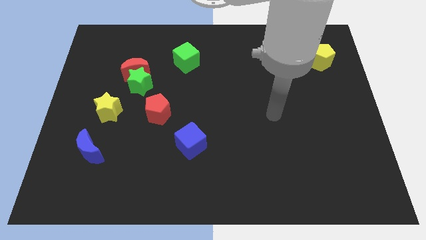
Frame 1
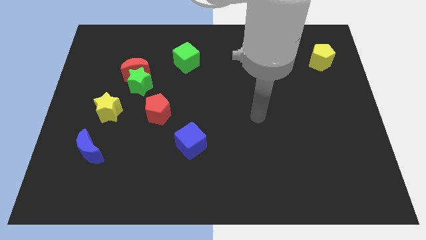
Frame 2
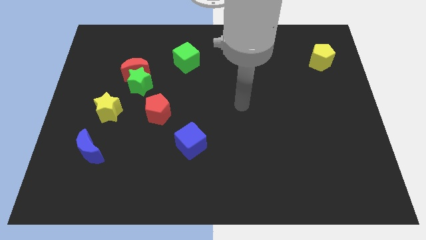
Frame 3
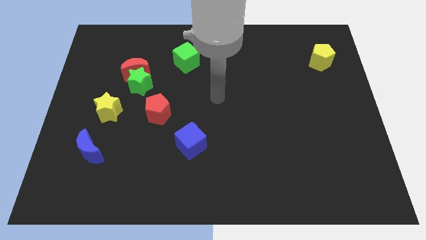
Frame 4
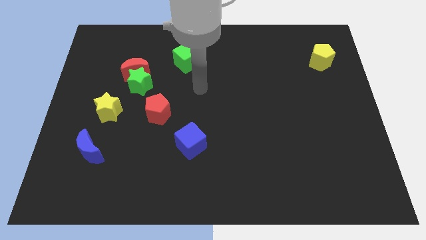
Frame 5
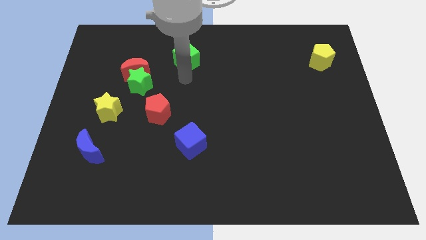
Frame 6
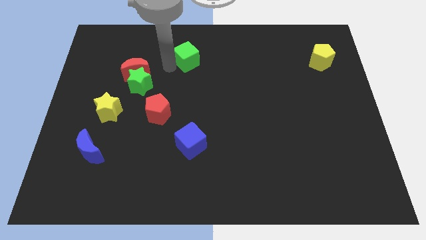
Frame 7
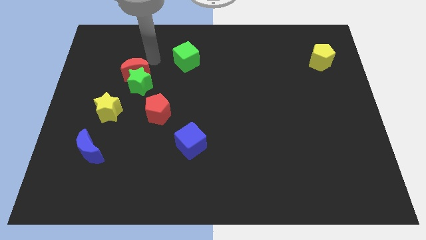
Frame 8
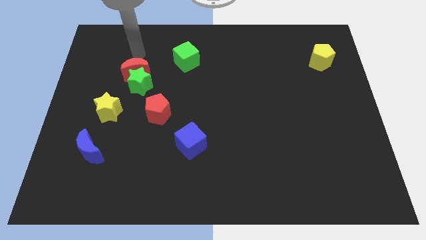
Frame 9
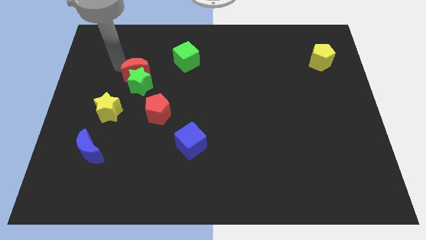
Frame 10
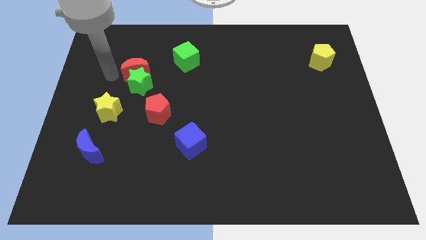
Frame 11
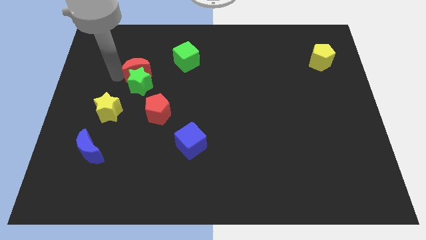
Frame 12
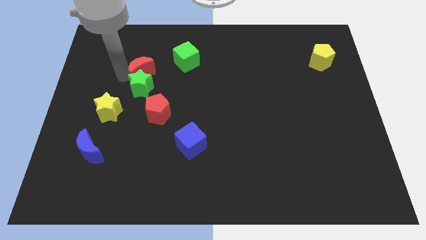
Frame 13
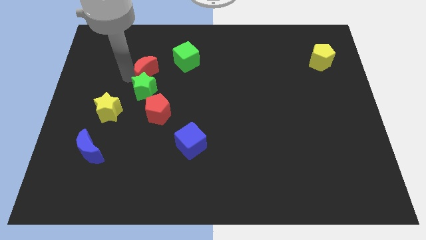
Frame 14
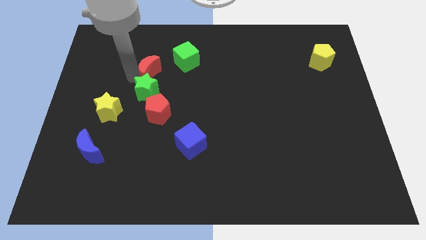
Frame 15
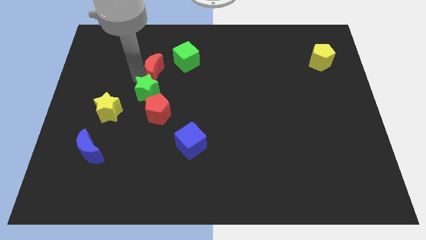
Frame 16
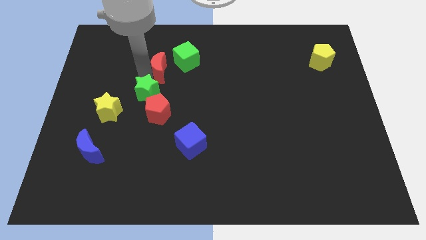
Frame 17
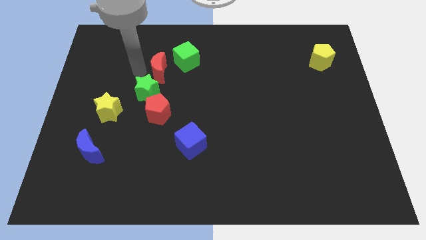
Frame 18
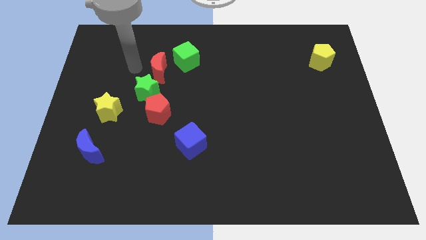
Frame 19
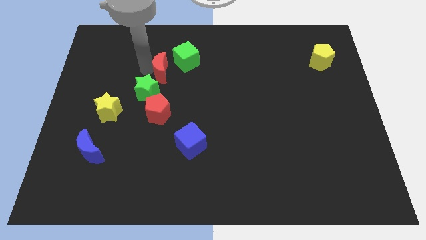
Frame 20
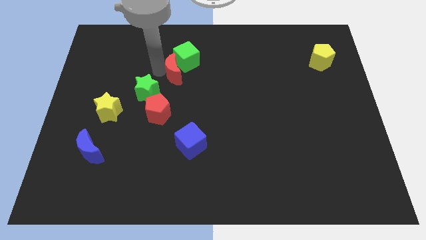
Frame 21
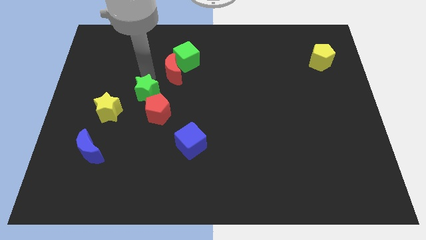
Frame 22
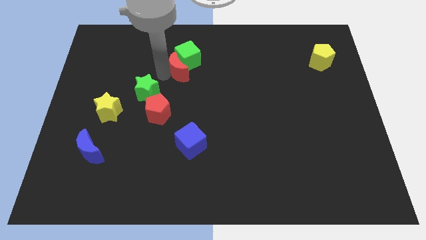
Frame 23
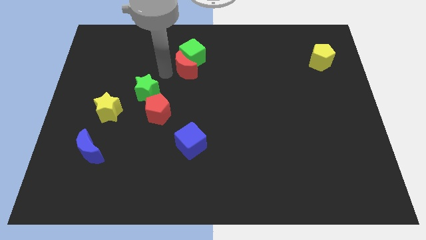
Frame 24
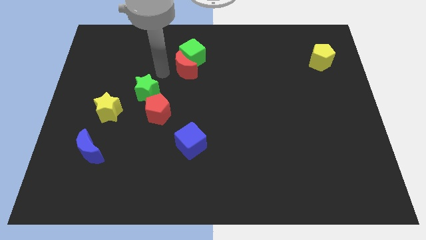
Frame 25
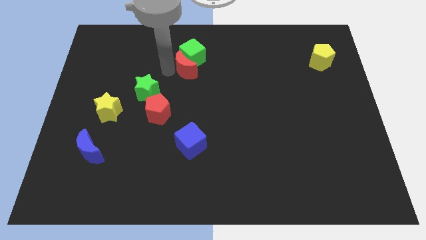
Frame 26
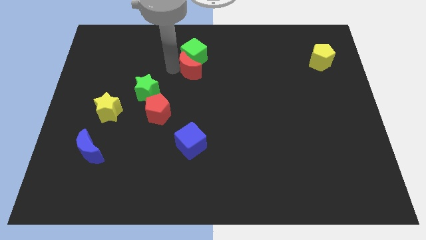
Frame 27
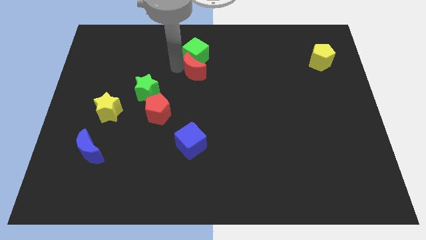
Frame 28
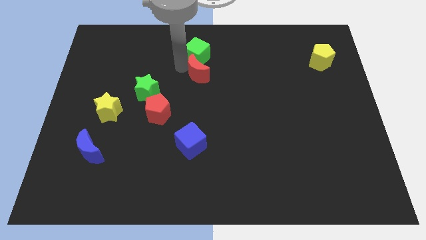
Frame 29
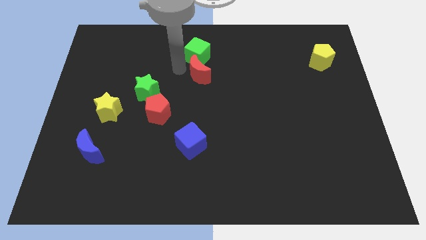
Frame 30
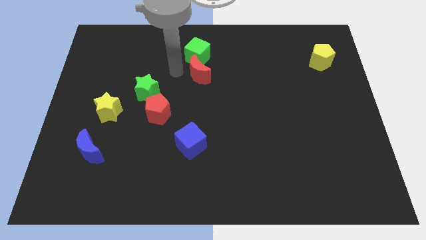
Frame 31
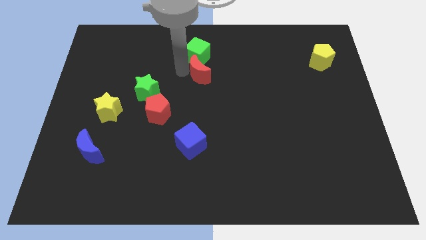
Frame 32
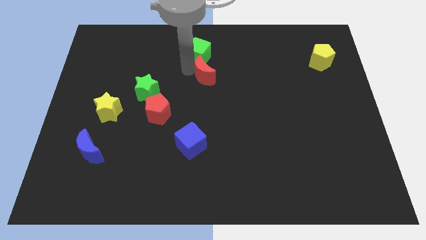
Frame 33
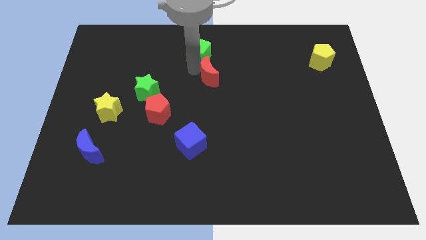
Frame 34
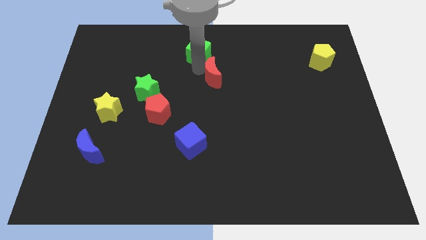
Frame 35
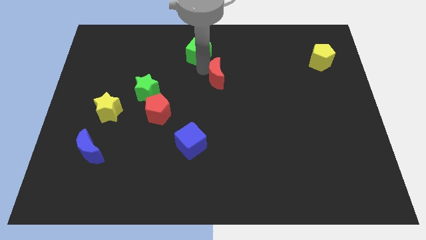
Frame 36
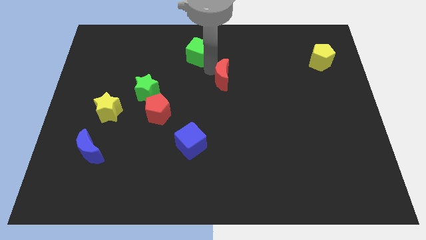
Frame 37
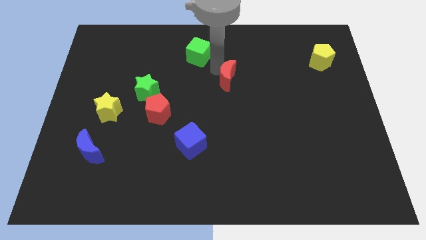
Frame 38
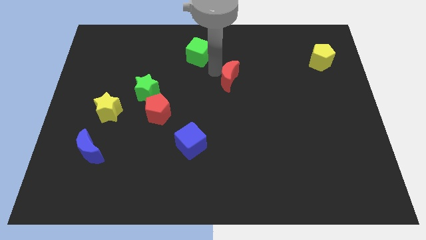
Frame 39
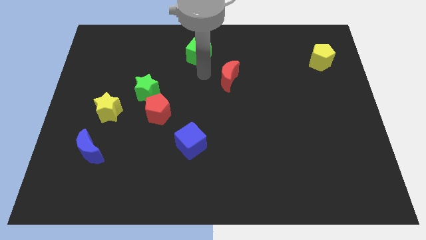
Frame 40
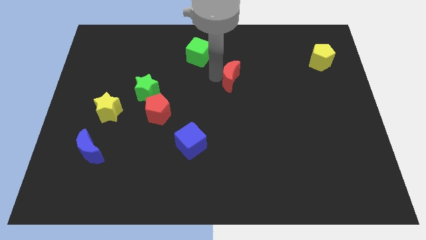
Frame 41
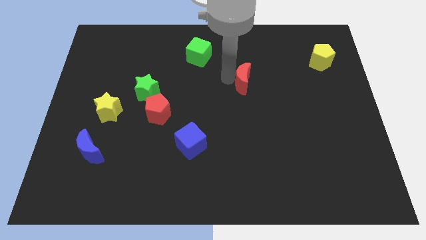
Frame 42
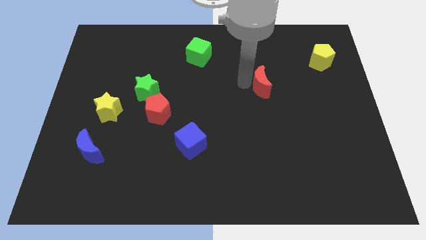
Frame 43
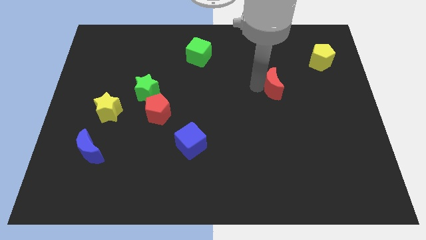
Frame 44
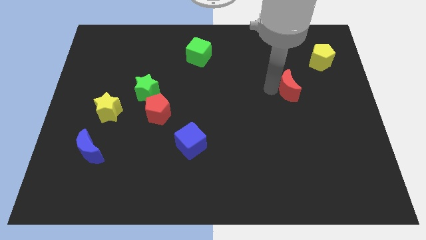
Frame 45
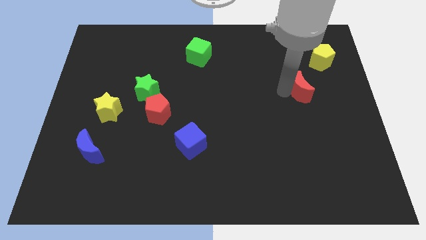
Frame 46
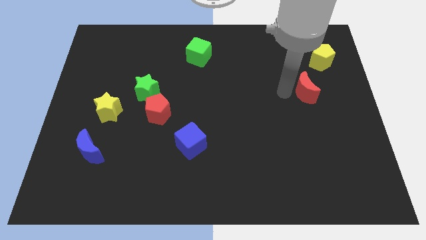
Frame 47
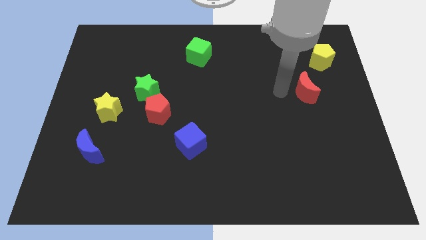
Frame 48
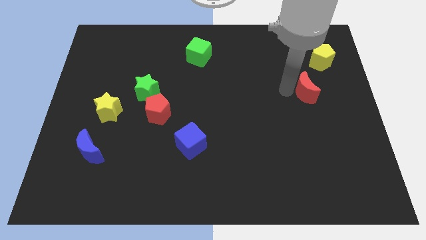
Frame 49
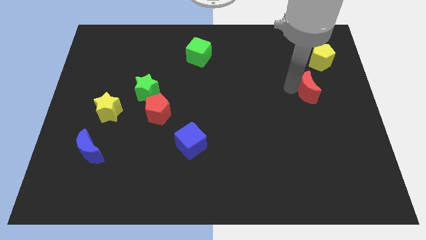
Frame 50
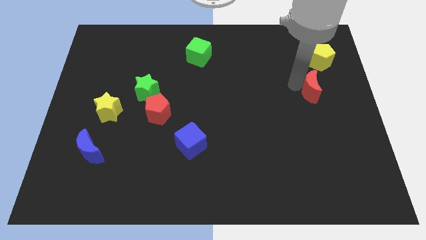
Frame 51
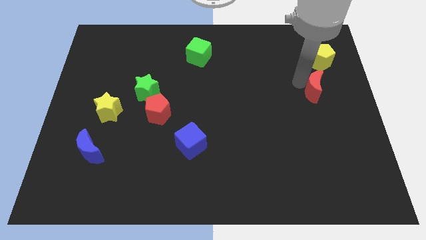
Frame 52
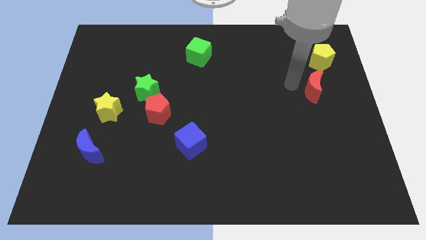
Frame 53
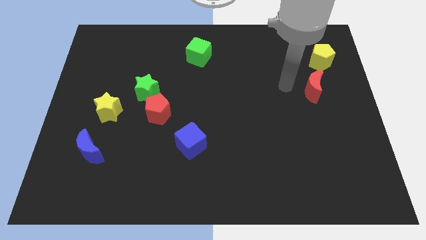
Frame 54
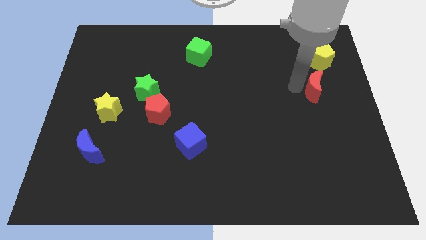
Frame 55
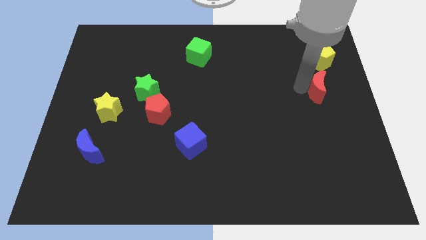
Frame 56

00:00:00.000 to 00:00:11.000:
move the red moon to the right side of the board

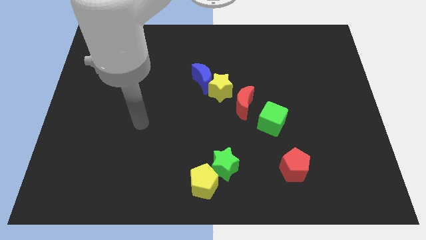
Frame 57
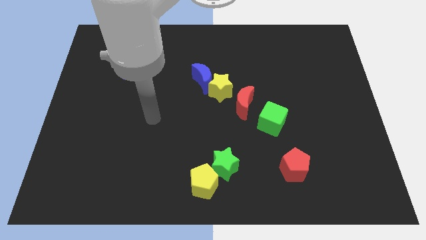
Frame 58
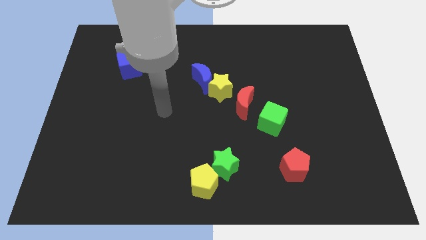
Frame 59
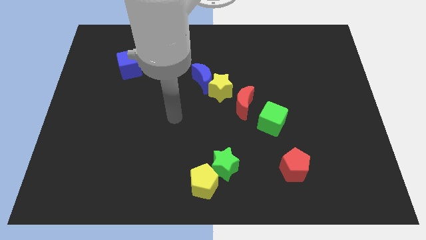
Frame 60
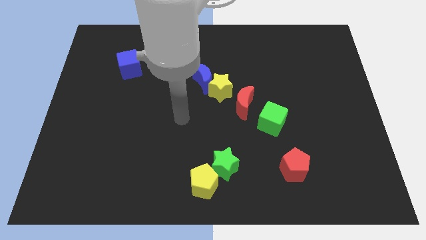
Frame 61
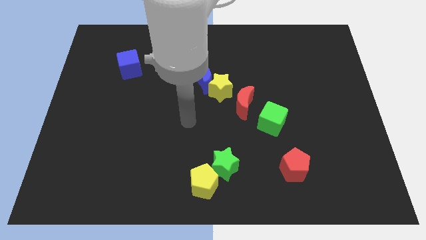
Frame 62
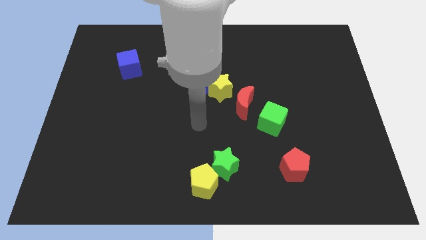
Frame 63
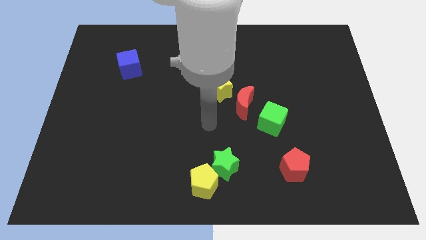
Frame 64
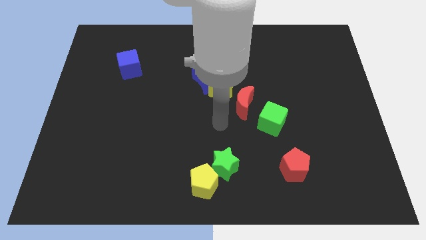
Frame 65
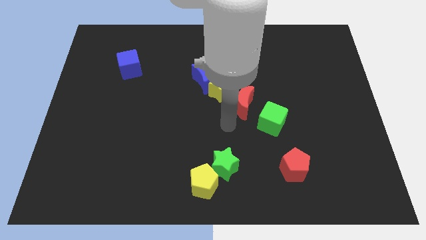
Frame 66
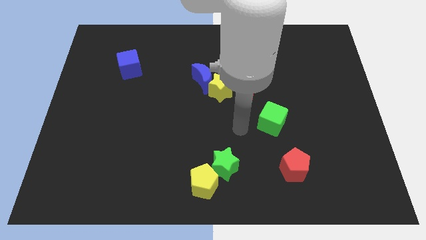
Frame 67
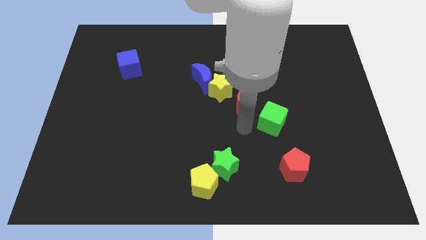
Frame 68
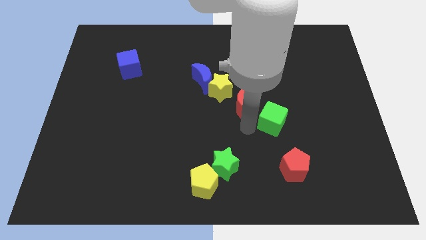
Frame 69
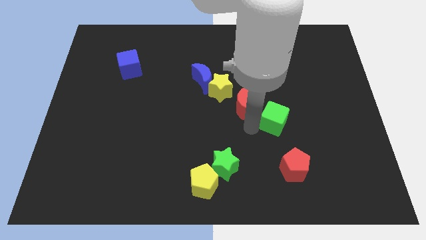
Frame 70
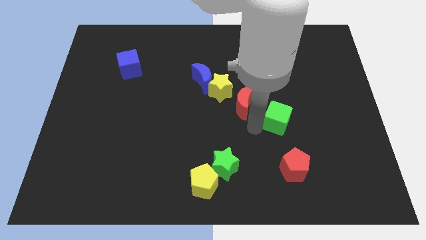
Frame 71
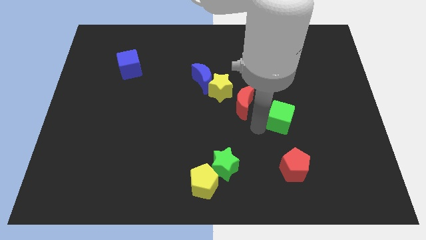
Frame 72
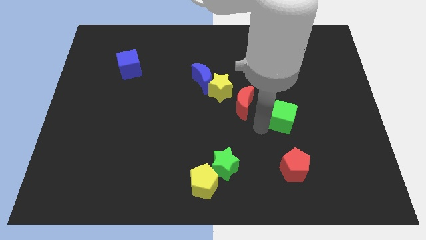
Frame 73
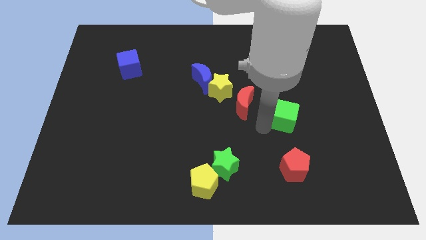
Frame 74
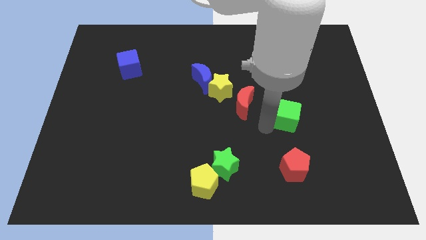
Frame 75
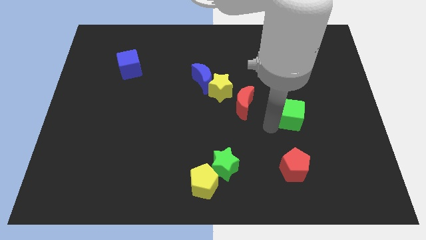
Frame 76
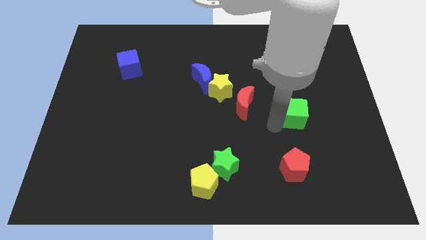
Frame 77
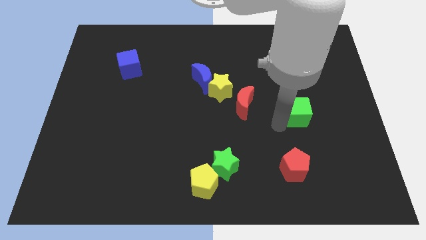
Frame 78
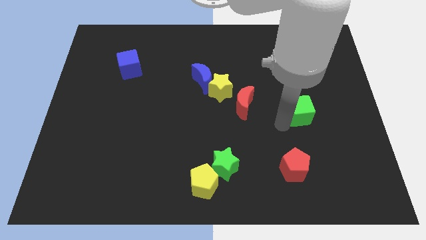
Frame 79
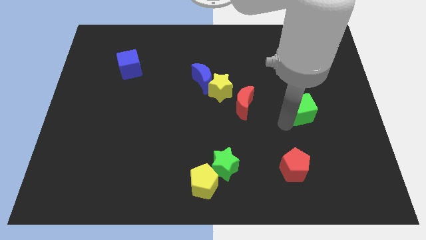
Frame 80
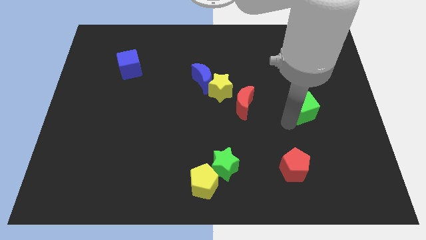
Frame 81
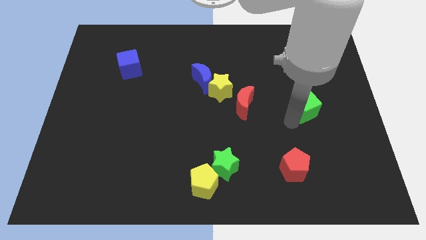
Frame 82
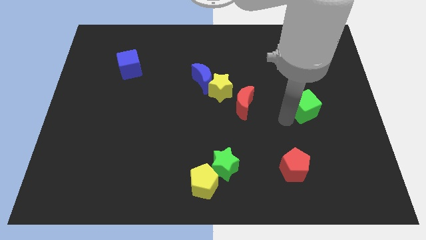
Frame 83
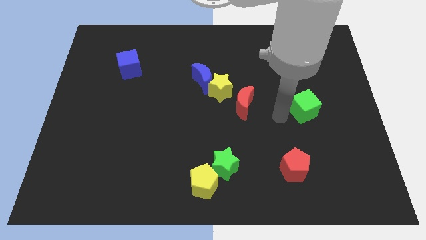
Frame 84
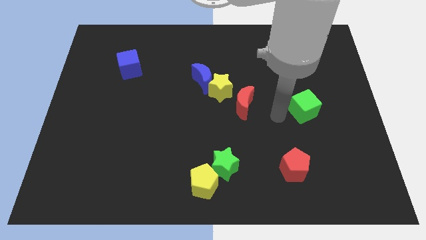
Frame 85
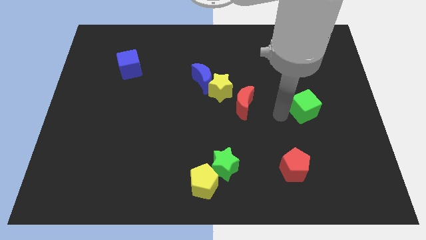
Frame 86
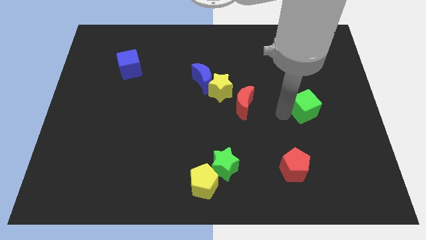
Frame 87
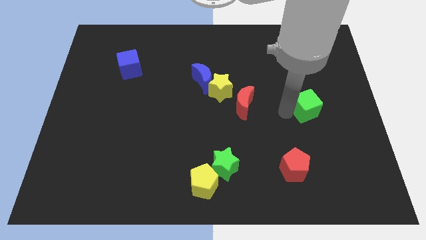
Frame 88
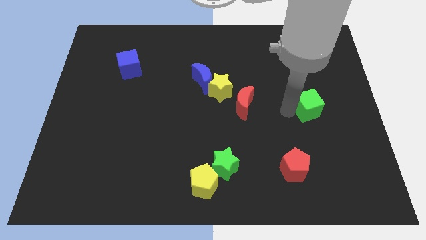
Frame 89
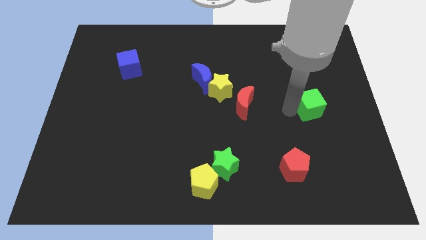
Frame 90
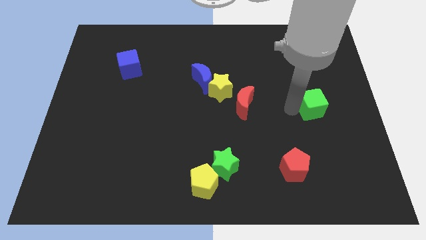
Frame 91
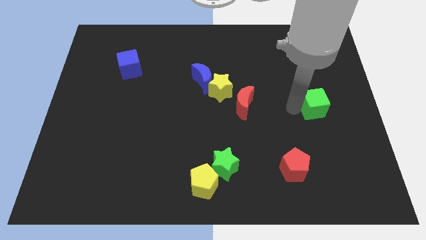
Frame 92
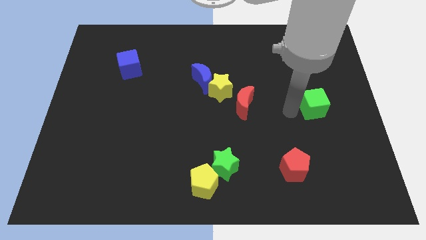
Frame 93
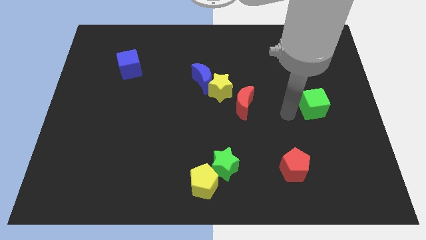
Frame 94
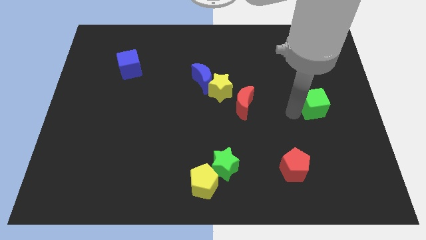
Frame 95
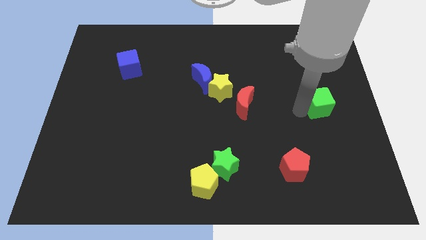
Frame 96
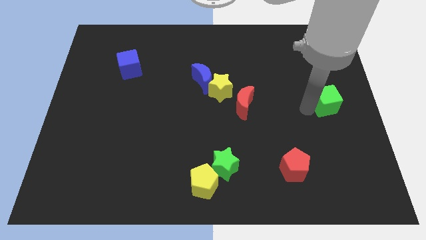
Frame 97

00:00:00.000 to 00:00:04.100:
move the green cube to the center right
